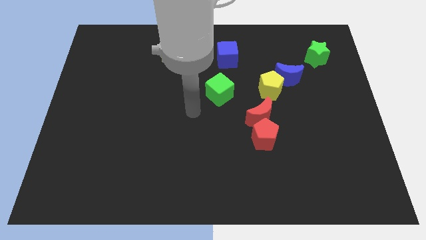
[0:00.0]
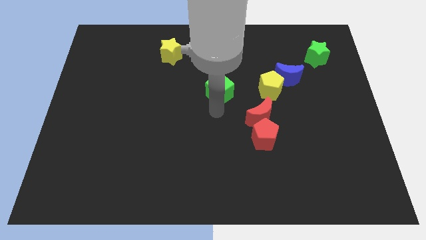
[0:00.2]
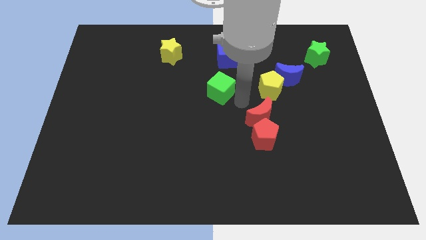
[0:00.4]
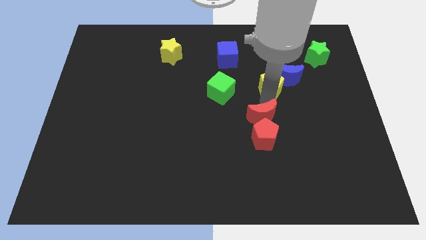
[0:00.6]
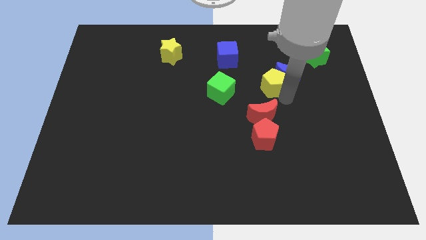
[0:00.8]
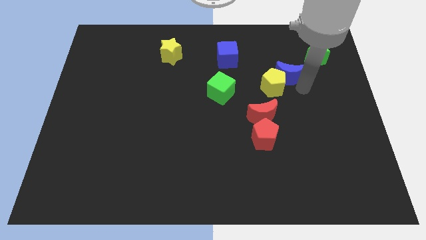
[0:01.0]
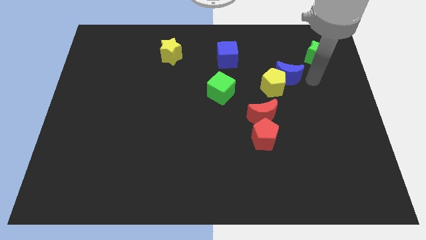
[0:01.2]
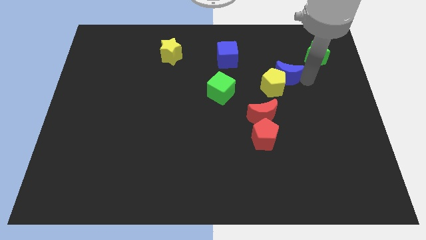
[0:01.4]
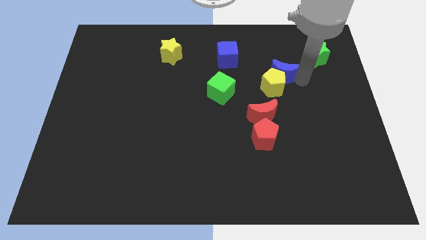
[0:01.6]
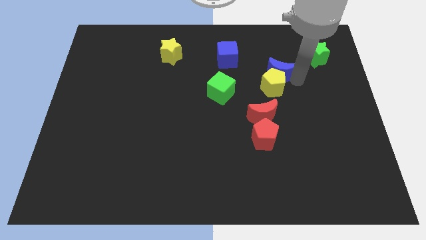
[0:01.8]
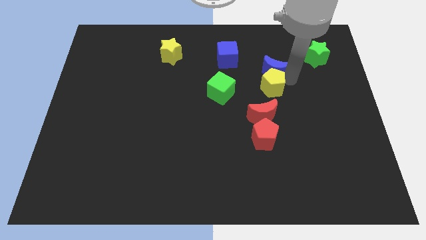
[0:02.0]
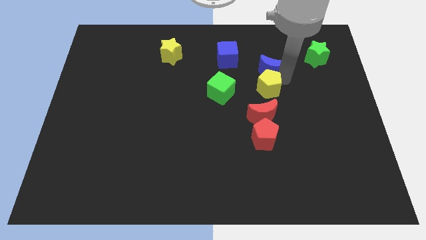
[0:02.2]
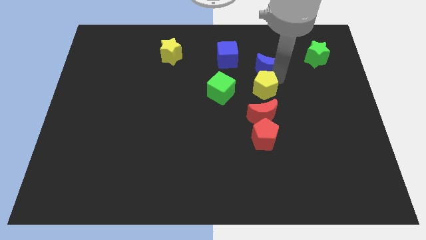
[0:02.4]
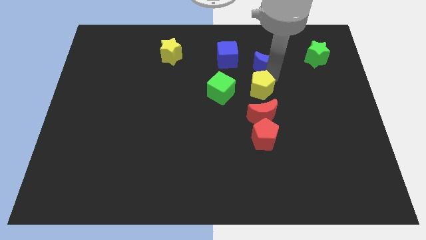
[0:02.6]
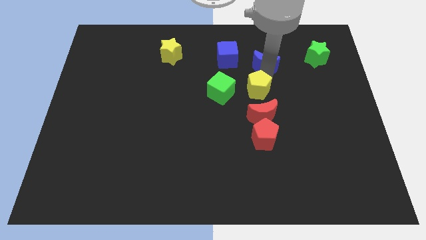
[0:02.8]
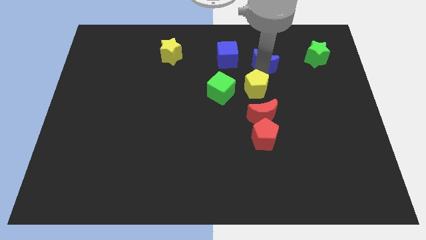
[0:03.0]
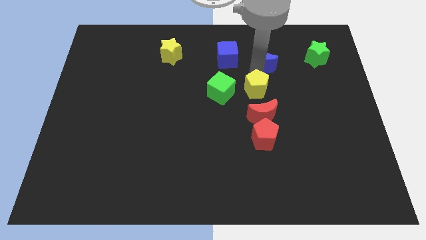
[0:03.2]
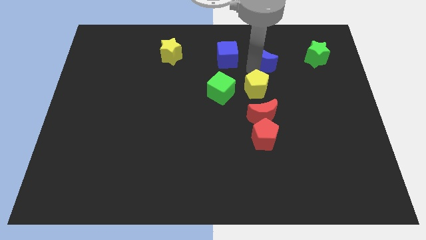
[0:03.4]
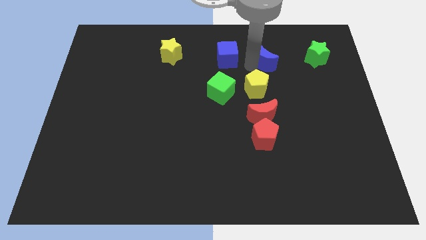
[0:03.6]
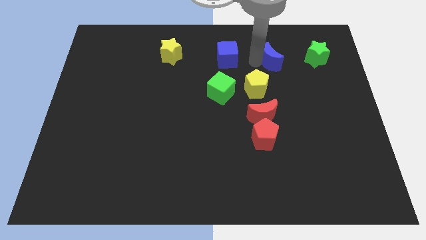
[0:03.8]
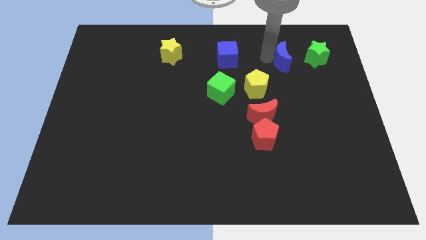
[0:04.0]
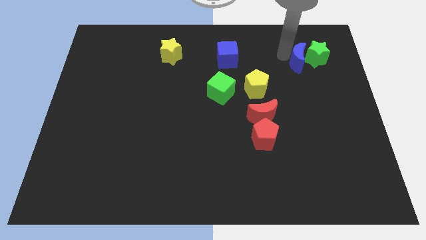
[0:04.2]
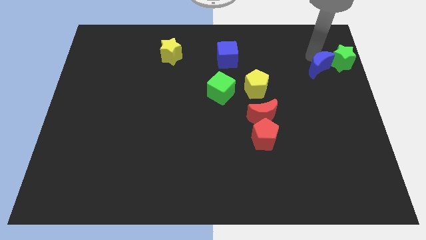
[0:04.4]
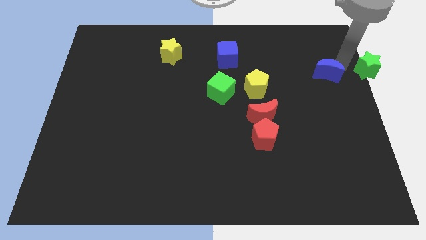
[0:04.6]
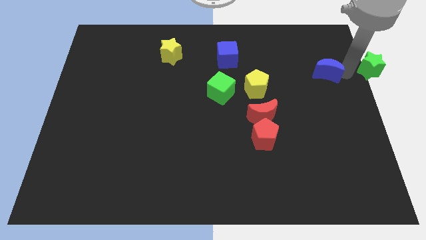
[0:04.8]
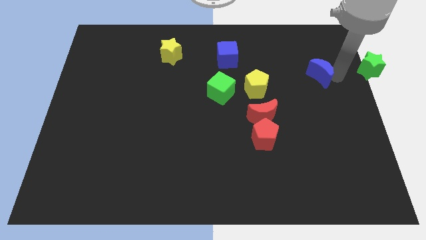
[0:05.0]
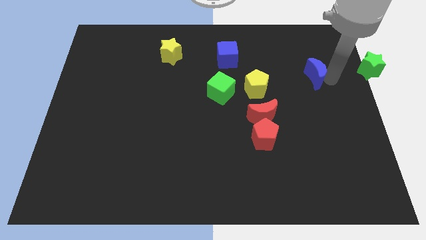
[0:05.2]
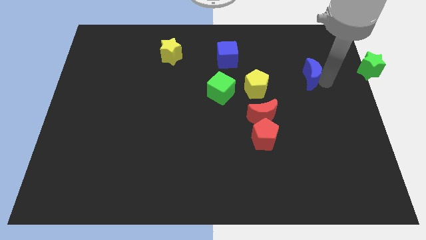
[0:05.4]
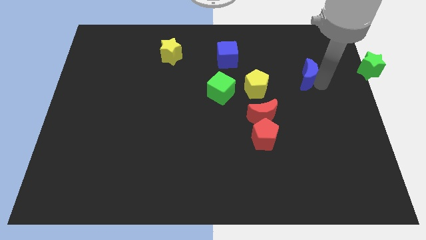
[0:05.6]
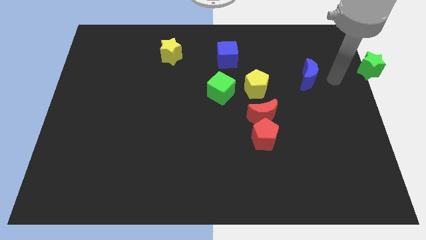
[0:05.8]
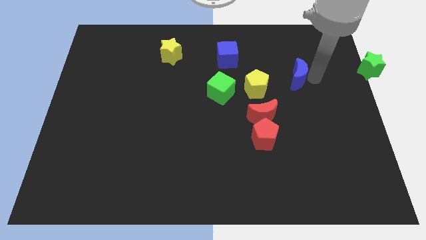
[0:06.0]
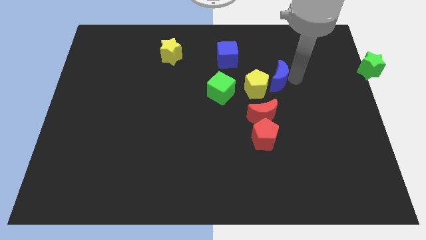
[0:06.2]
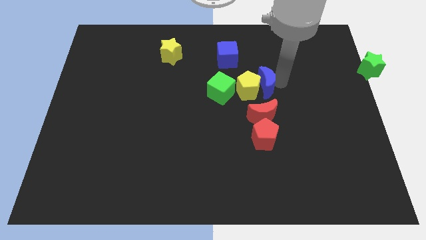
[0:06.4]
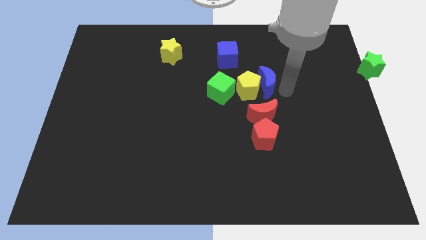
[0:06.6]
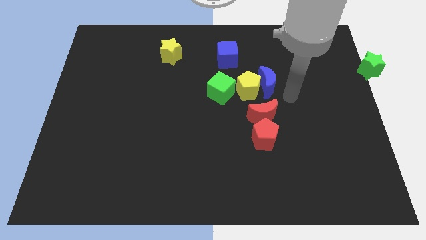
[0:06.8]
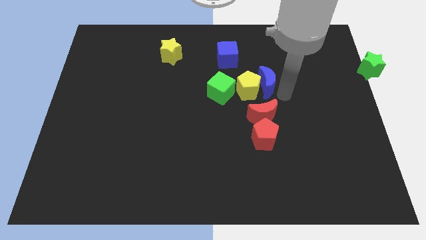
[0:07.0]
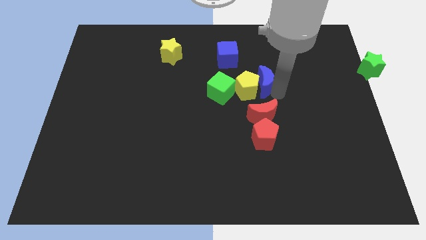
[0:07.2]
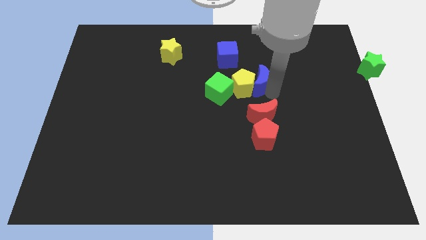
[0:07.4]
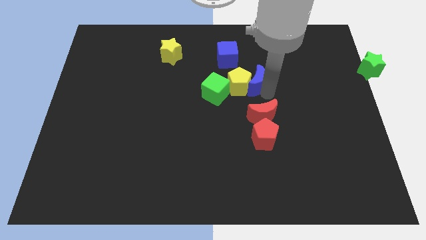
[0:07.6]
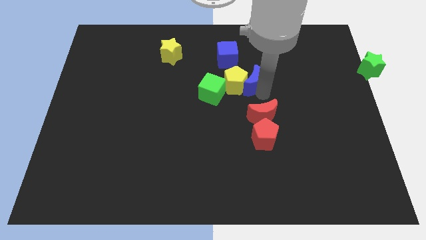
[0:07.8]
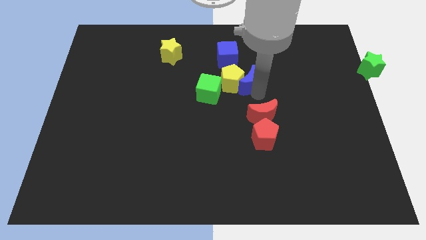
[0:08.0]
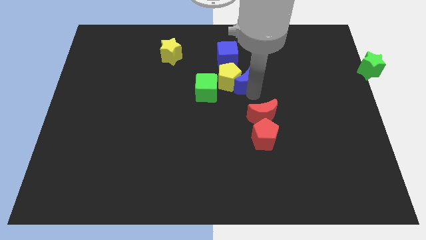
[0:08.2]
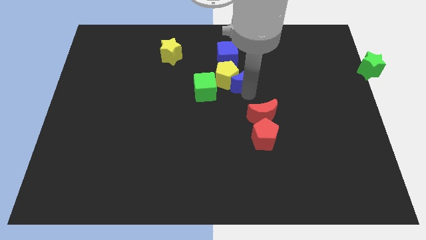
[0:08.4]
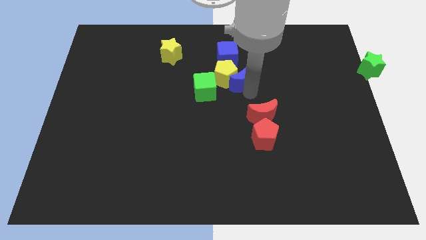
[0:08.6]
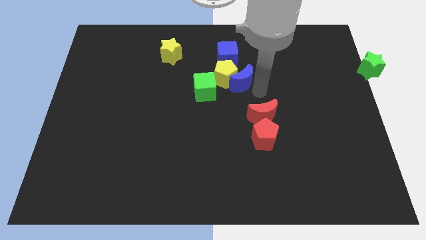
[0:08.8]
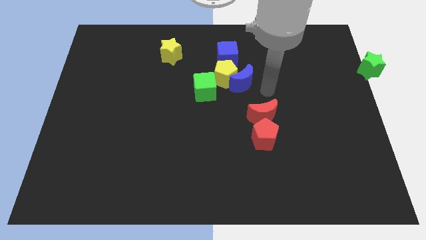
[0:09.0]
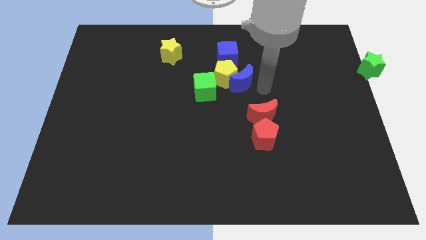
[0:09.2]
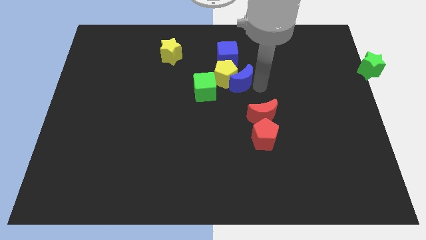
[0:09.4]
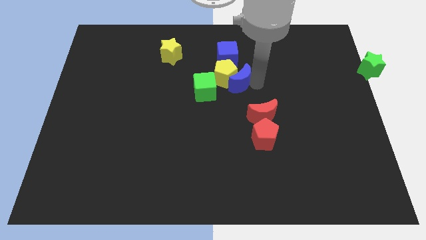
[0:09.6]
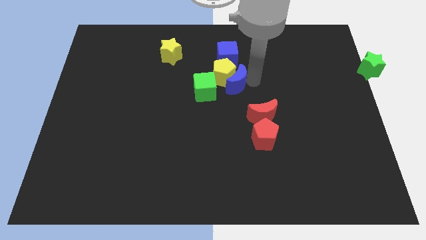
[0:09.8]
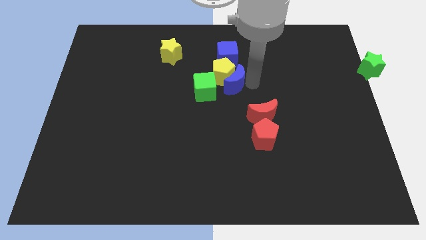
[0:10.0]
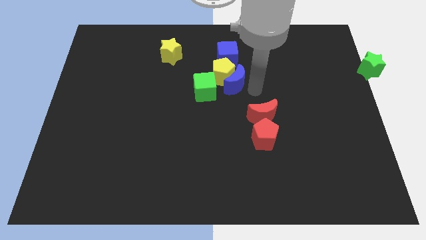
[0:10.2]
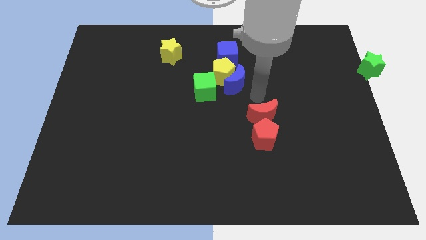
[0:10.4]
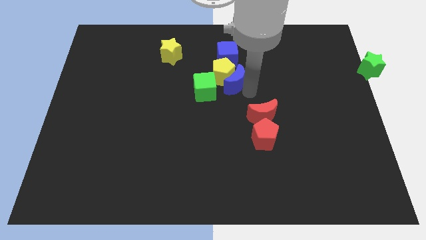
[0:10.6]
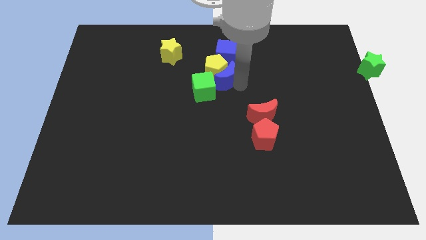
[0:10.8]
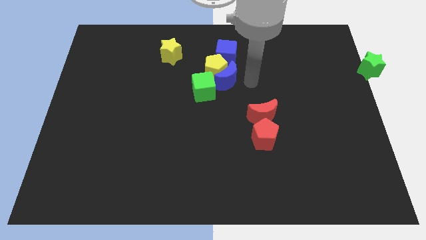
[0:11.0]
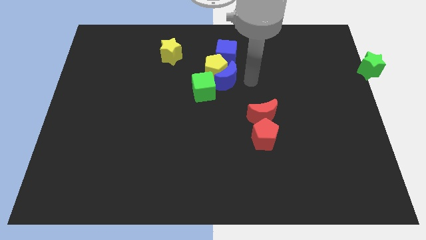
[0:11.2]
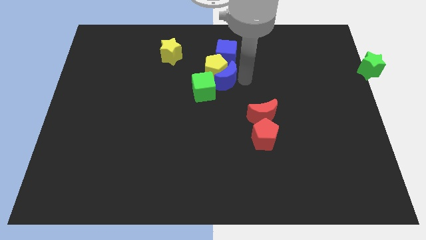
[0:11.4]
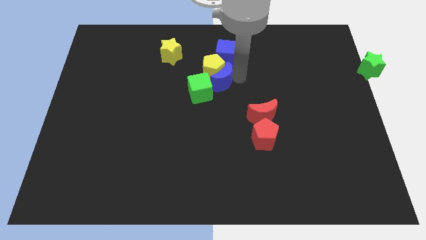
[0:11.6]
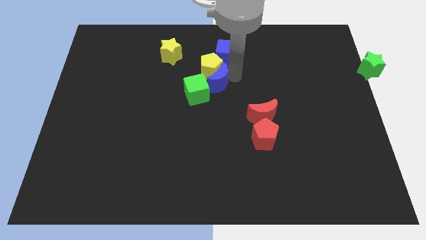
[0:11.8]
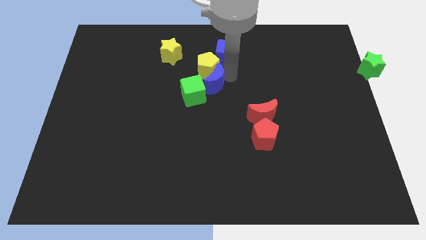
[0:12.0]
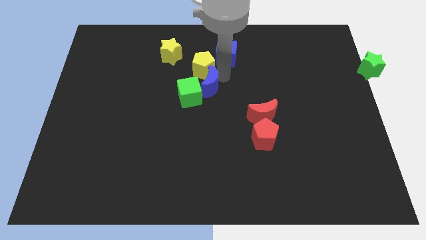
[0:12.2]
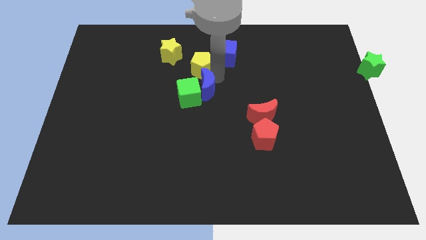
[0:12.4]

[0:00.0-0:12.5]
move the blue moon to the left

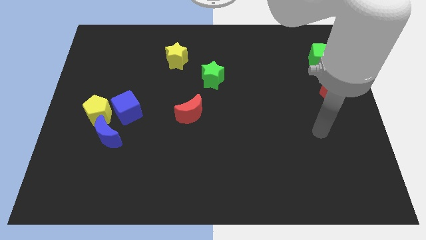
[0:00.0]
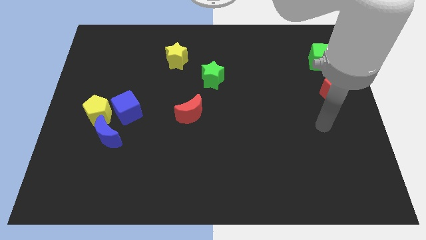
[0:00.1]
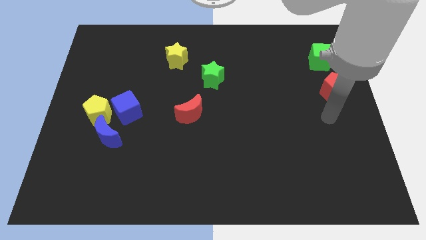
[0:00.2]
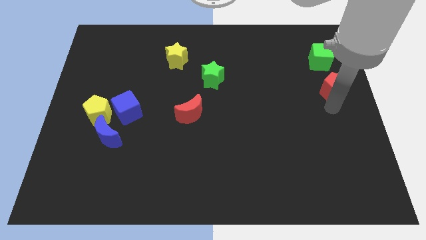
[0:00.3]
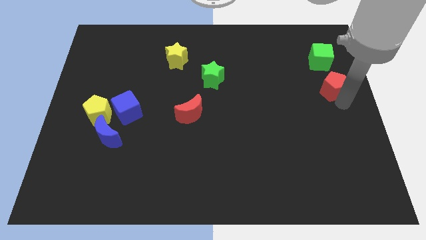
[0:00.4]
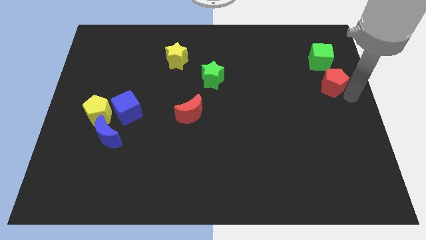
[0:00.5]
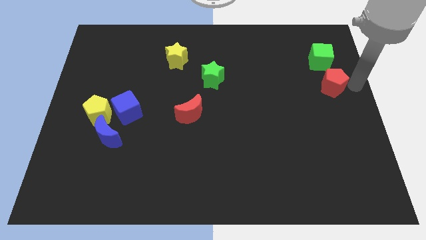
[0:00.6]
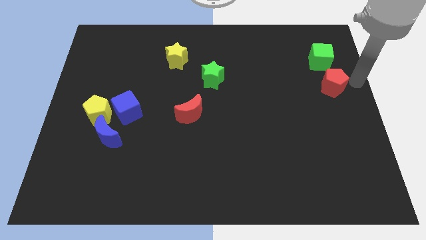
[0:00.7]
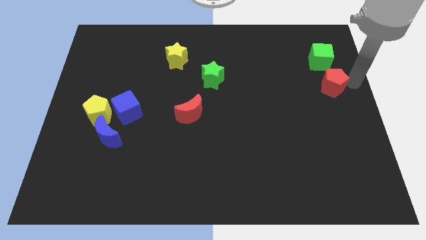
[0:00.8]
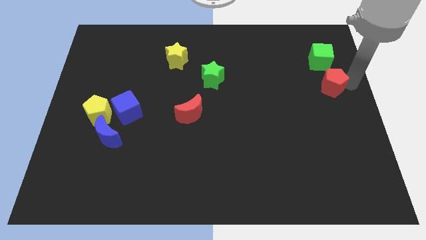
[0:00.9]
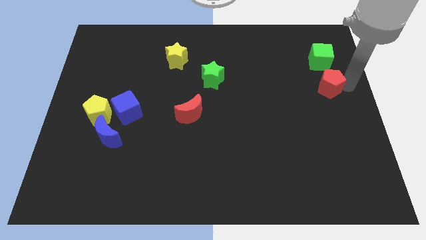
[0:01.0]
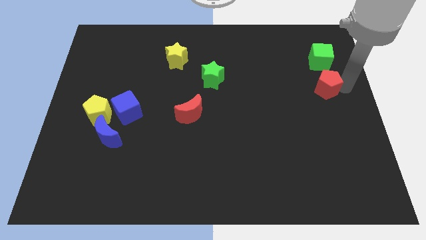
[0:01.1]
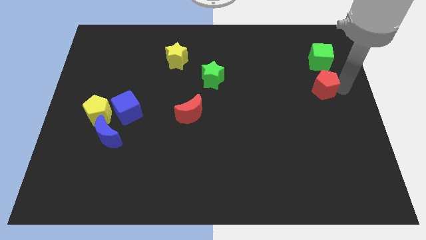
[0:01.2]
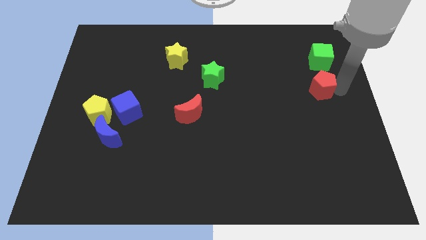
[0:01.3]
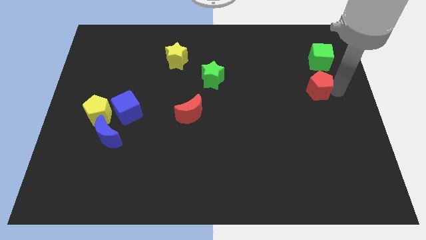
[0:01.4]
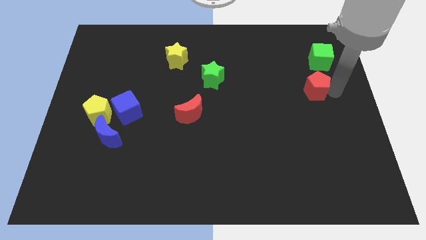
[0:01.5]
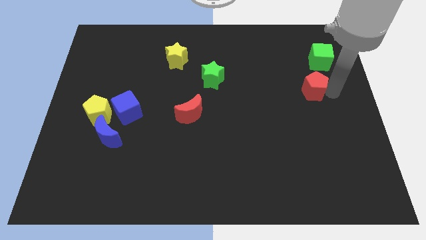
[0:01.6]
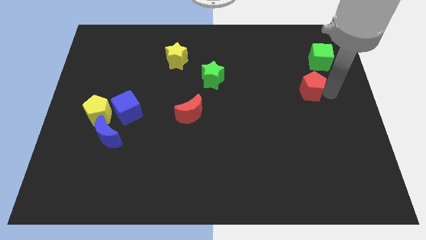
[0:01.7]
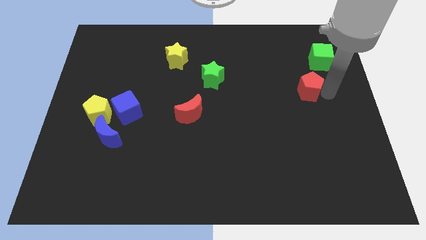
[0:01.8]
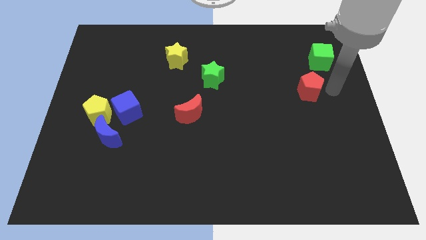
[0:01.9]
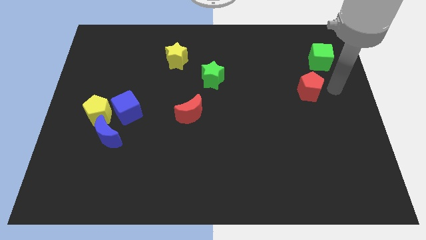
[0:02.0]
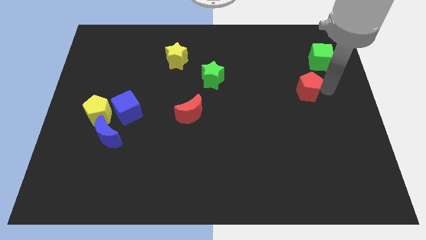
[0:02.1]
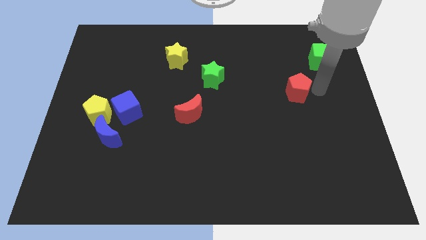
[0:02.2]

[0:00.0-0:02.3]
move the red pentagon a little bit left
